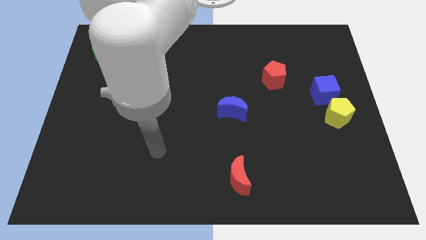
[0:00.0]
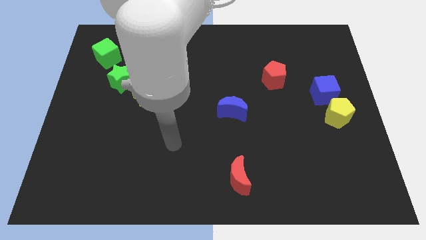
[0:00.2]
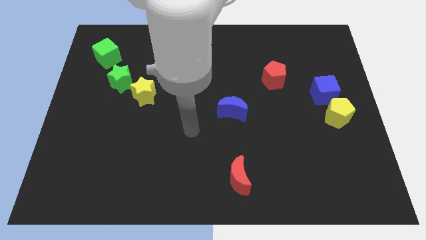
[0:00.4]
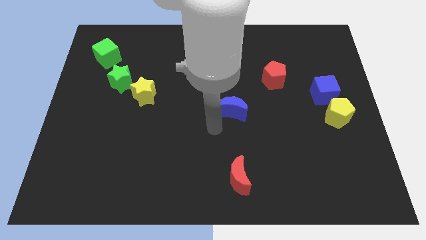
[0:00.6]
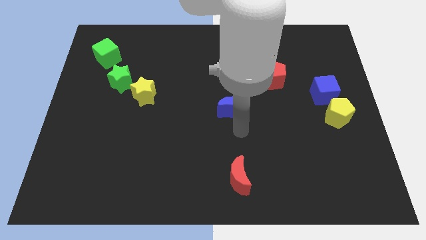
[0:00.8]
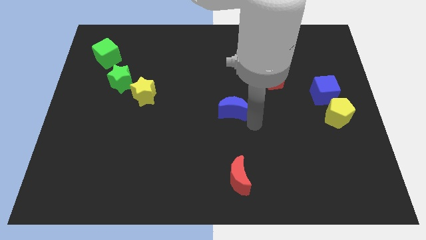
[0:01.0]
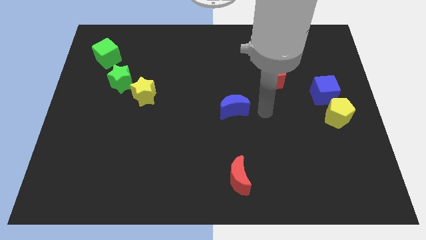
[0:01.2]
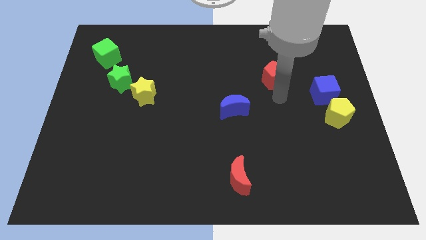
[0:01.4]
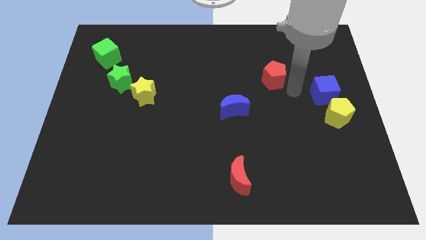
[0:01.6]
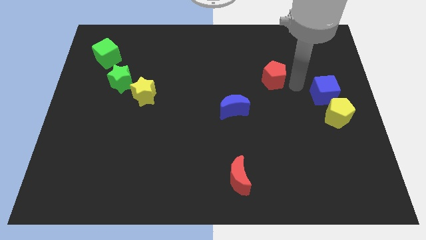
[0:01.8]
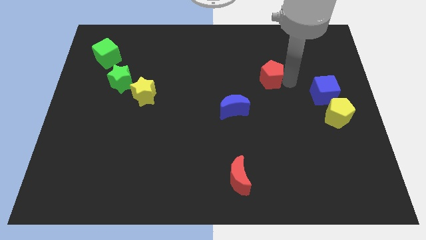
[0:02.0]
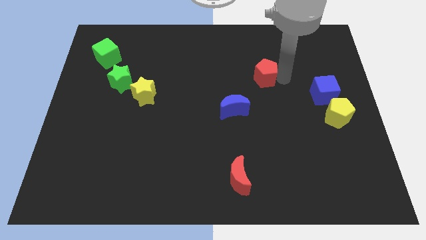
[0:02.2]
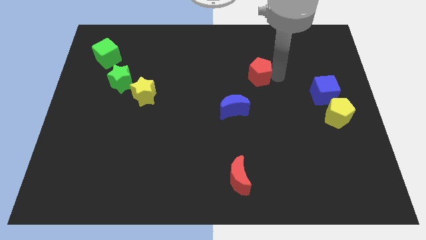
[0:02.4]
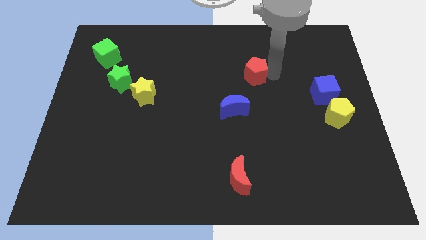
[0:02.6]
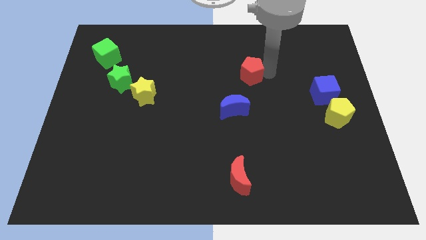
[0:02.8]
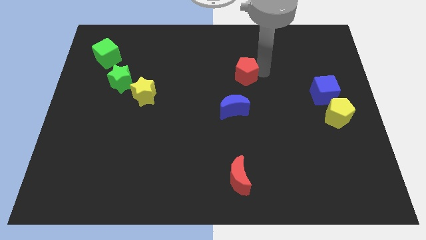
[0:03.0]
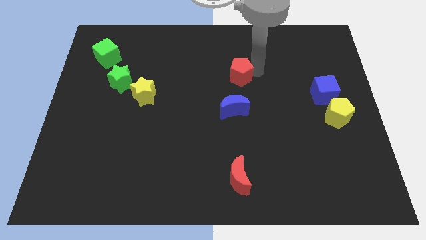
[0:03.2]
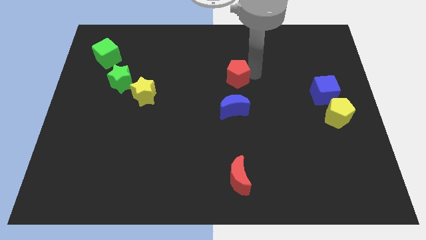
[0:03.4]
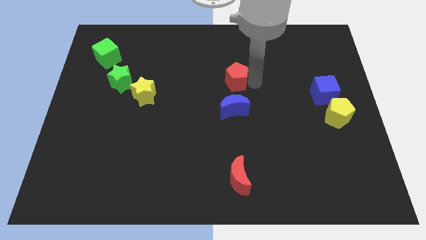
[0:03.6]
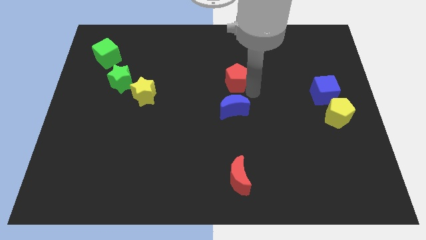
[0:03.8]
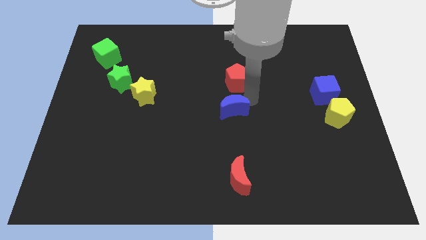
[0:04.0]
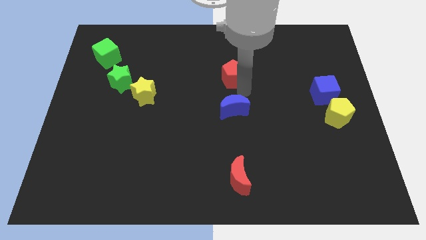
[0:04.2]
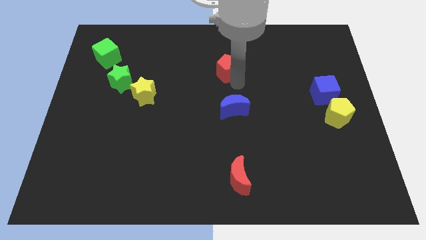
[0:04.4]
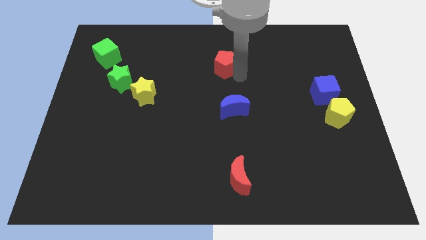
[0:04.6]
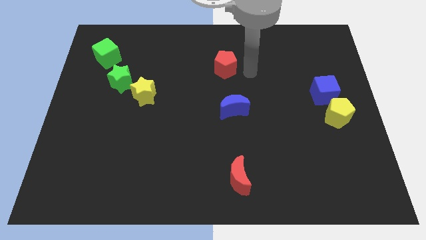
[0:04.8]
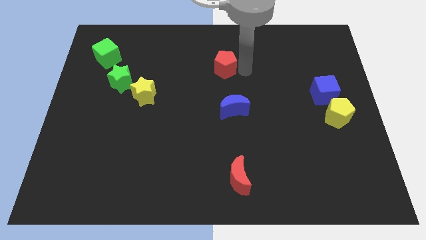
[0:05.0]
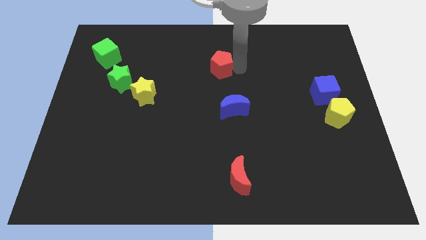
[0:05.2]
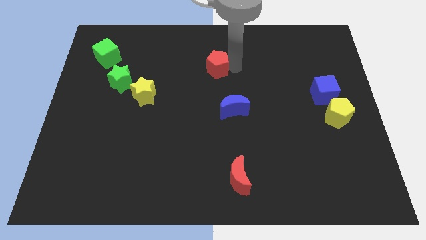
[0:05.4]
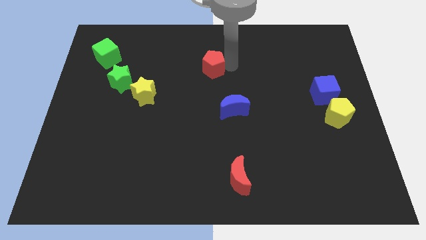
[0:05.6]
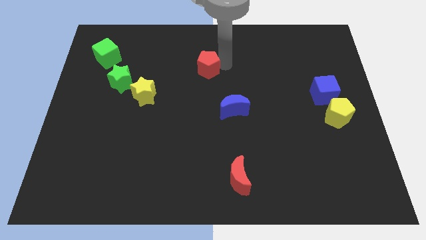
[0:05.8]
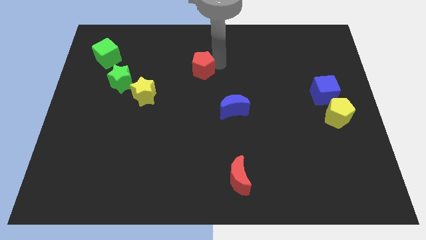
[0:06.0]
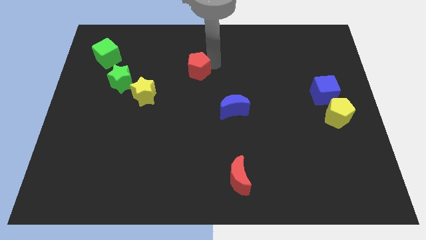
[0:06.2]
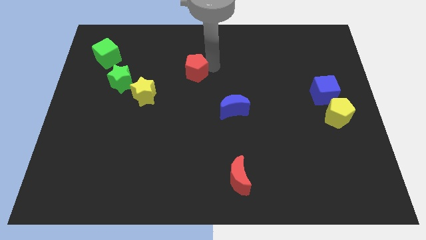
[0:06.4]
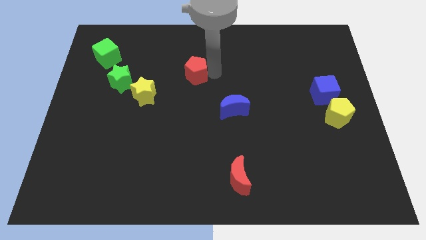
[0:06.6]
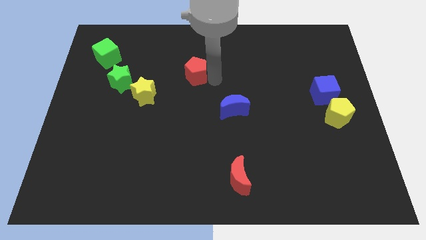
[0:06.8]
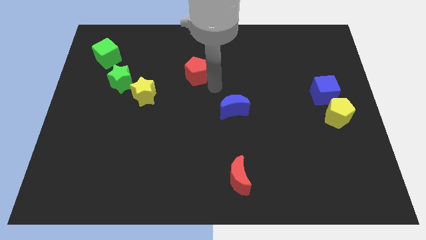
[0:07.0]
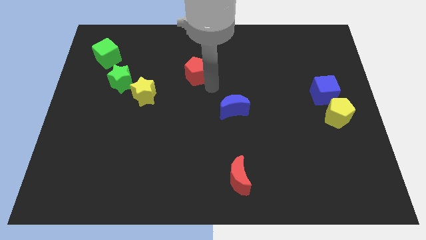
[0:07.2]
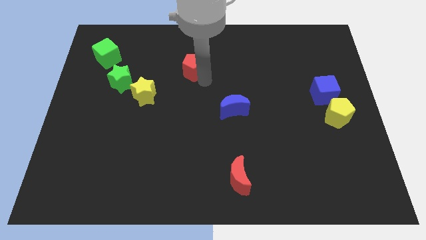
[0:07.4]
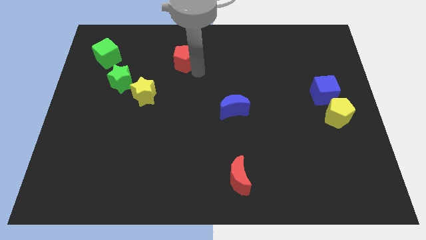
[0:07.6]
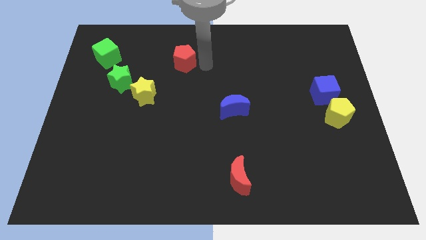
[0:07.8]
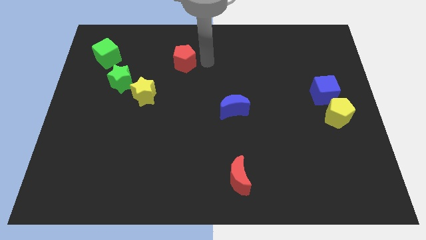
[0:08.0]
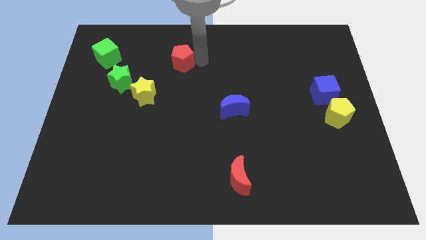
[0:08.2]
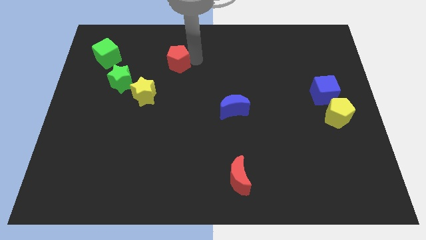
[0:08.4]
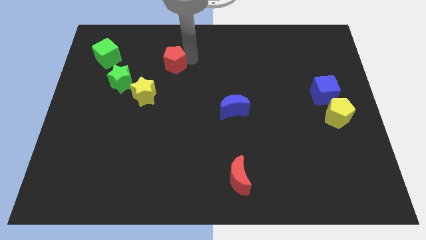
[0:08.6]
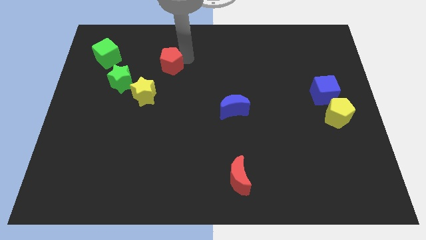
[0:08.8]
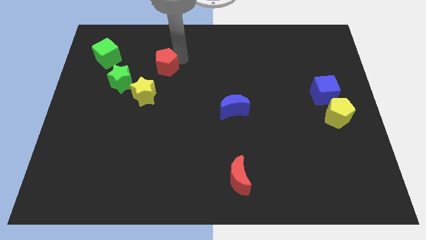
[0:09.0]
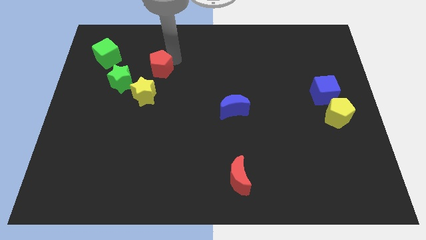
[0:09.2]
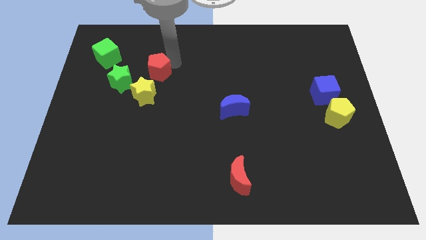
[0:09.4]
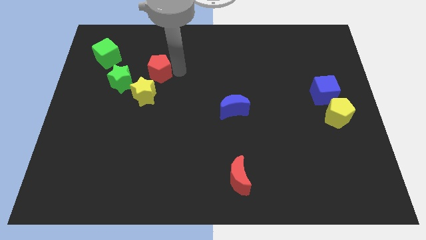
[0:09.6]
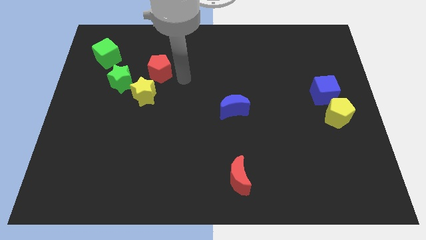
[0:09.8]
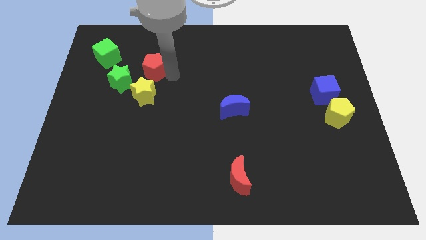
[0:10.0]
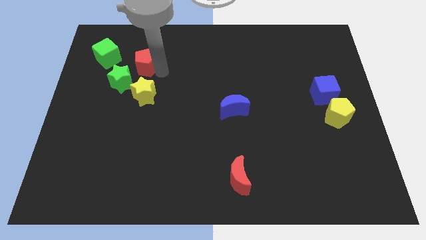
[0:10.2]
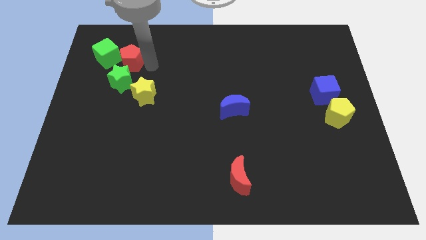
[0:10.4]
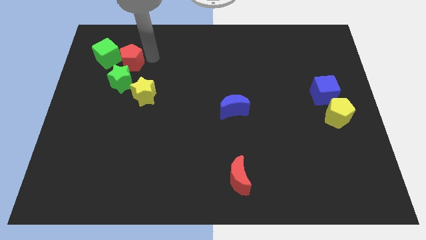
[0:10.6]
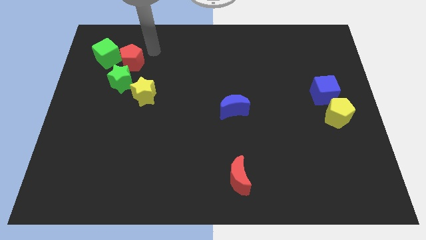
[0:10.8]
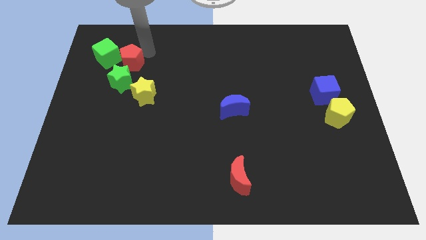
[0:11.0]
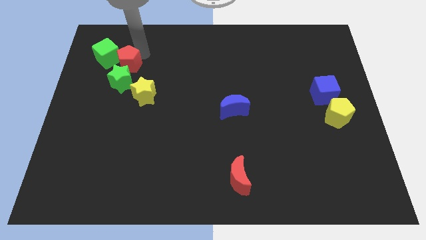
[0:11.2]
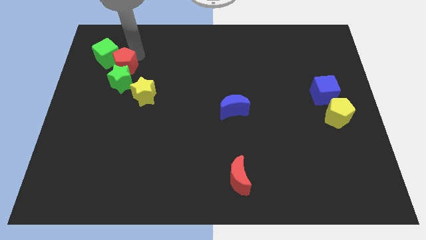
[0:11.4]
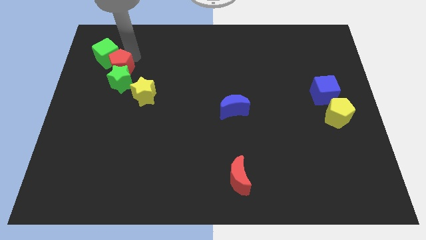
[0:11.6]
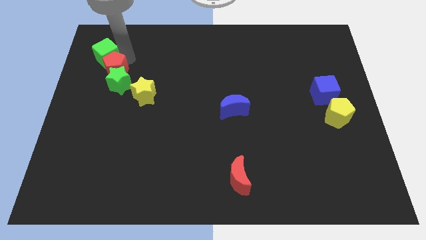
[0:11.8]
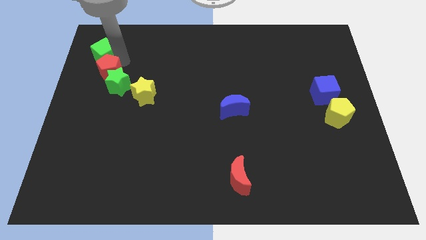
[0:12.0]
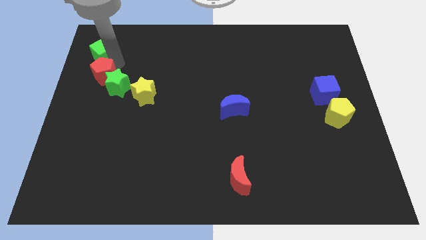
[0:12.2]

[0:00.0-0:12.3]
slide the red pentagon to the left side

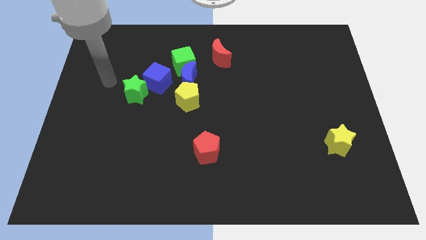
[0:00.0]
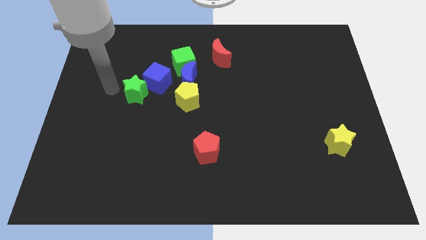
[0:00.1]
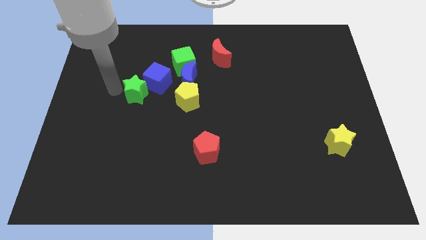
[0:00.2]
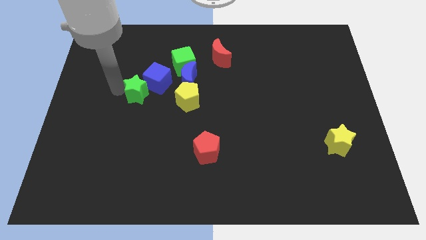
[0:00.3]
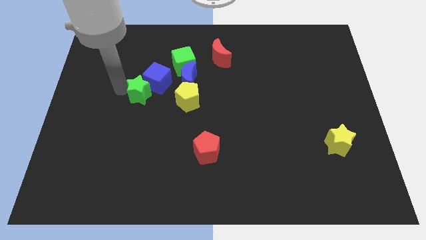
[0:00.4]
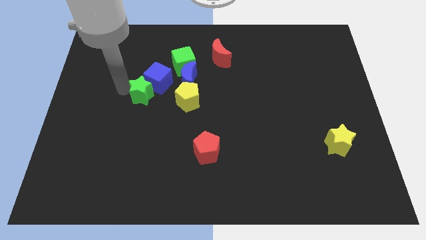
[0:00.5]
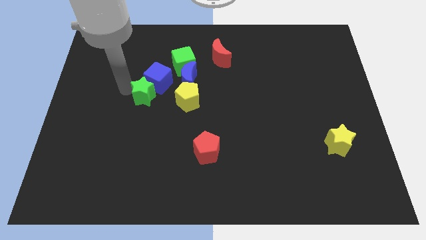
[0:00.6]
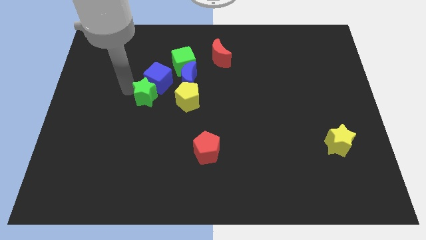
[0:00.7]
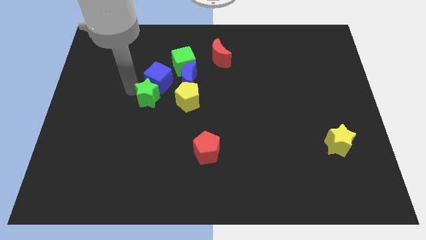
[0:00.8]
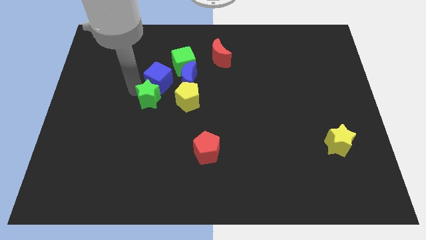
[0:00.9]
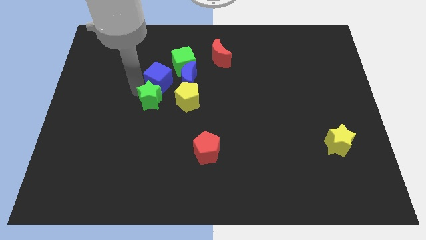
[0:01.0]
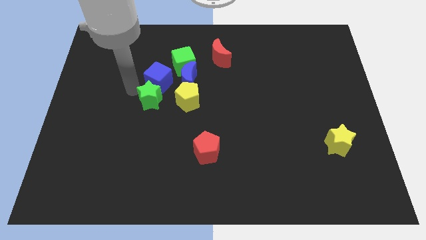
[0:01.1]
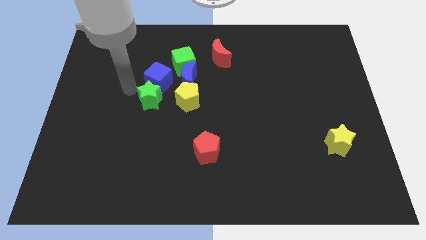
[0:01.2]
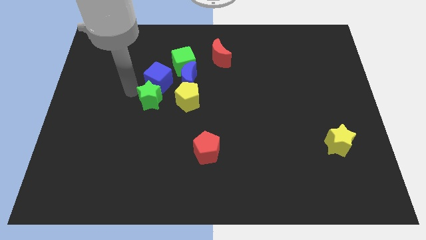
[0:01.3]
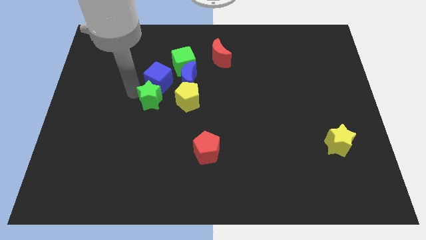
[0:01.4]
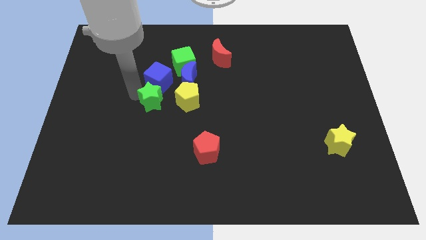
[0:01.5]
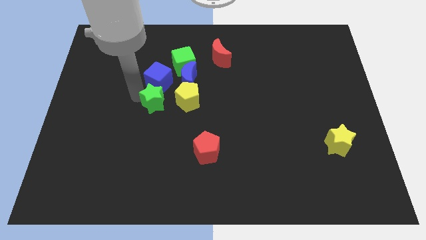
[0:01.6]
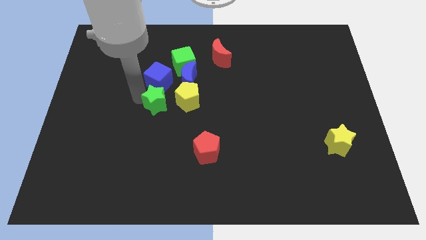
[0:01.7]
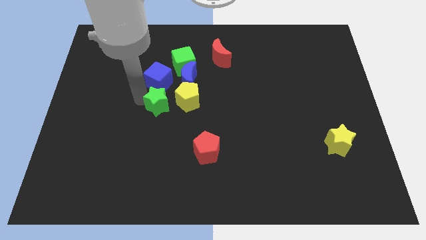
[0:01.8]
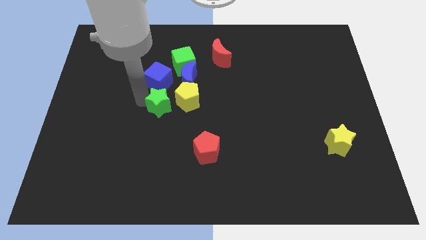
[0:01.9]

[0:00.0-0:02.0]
move the green star to the center
